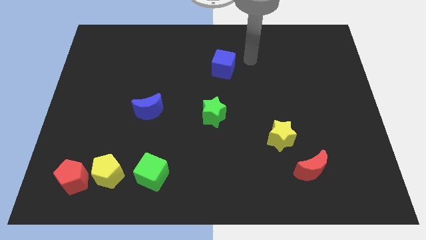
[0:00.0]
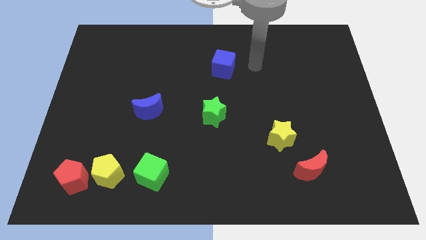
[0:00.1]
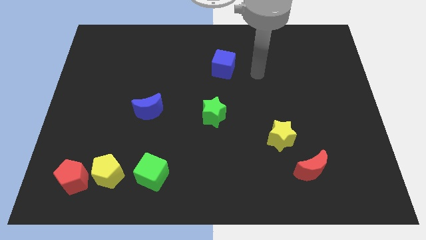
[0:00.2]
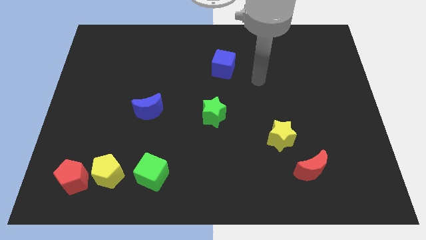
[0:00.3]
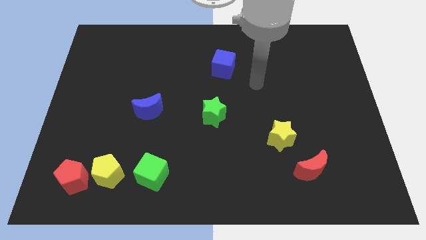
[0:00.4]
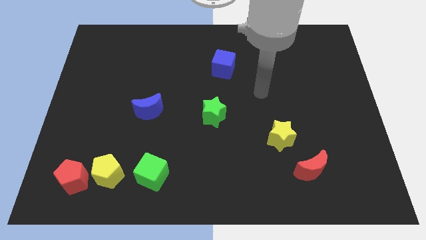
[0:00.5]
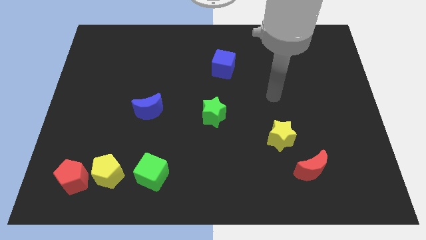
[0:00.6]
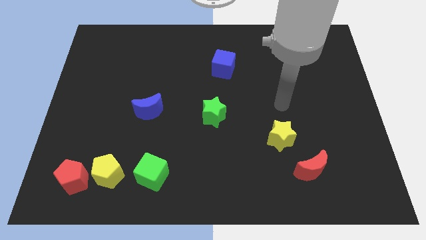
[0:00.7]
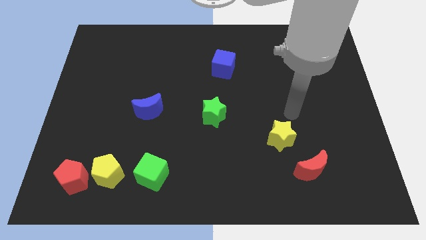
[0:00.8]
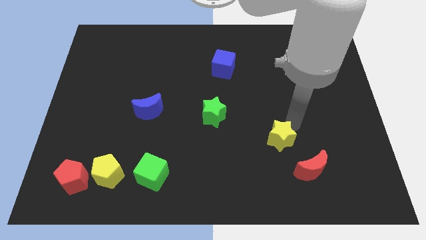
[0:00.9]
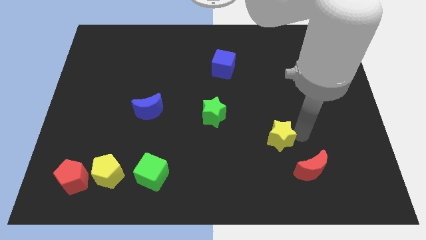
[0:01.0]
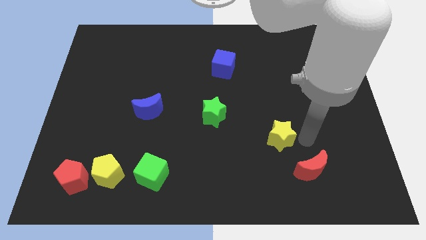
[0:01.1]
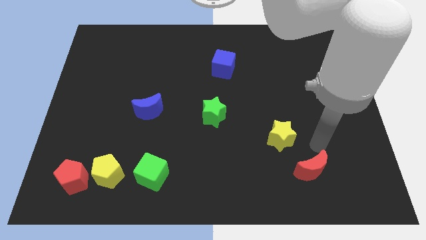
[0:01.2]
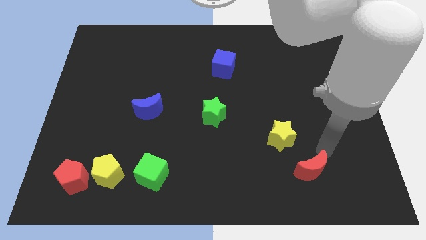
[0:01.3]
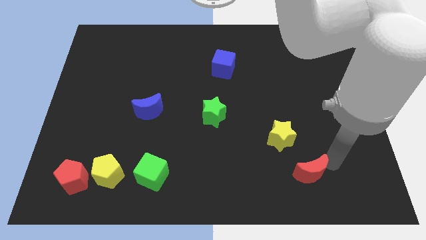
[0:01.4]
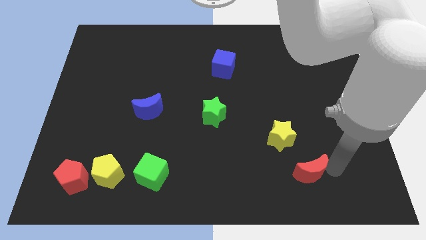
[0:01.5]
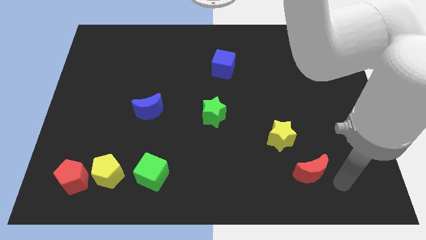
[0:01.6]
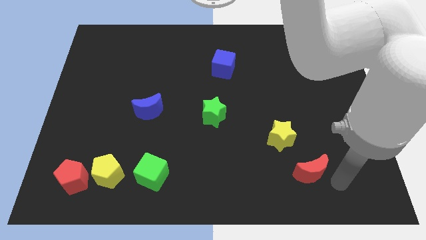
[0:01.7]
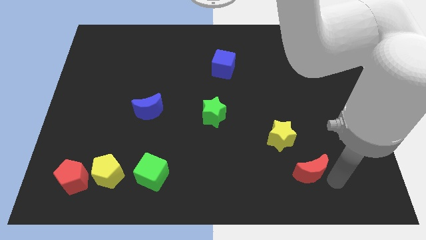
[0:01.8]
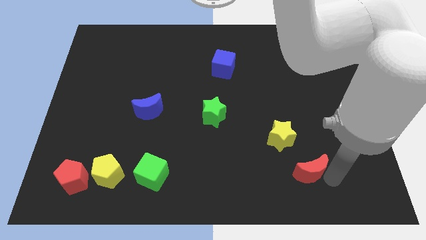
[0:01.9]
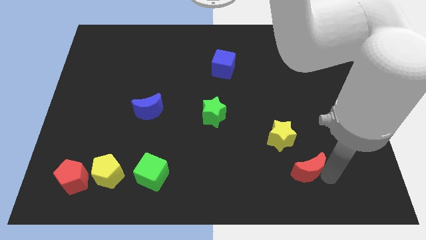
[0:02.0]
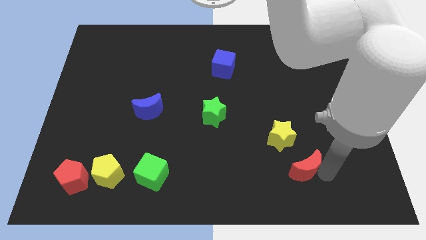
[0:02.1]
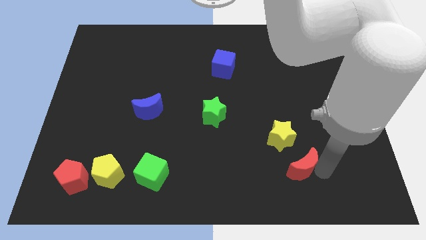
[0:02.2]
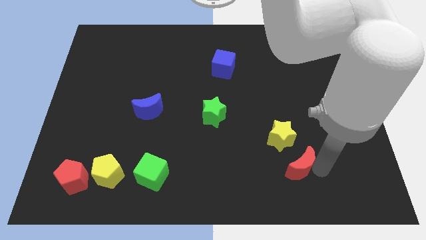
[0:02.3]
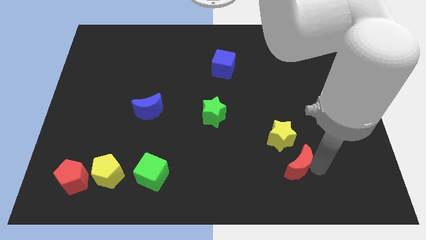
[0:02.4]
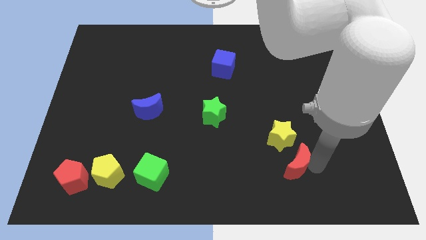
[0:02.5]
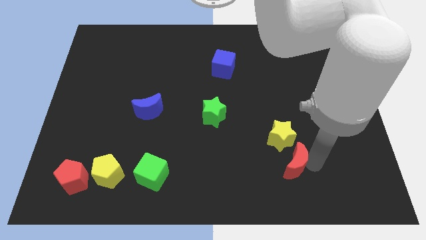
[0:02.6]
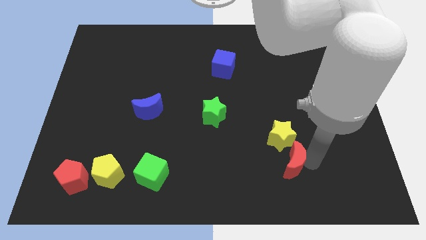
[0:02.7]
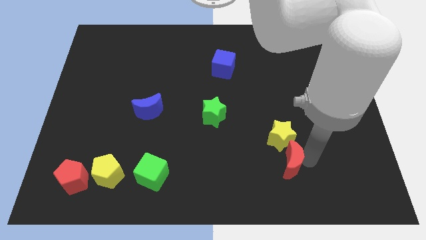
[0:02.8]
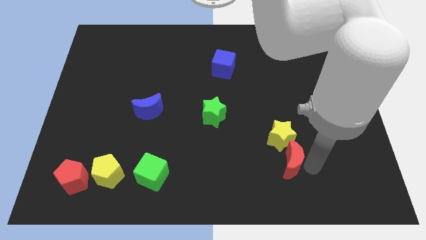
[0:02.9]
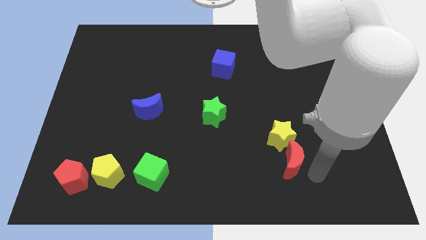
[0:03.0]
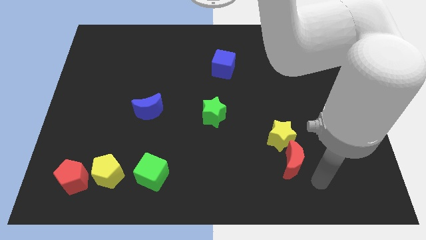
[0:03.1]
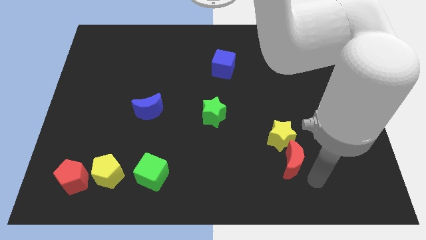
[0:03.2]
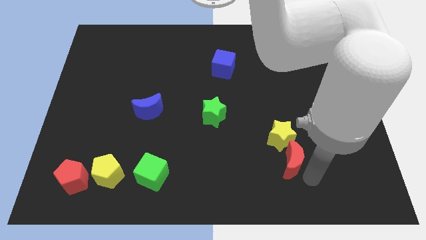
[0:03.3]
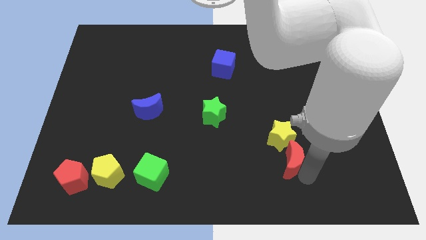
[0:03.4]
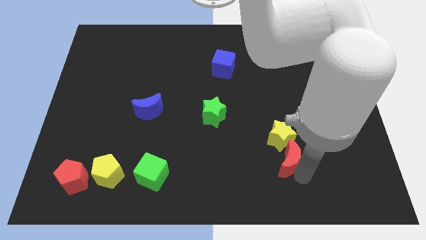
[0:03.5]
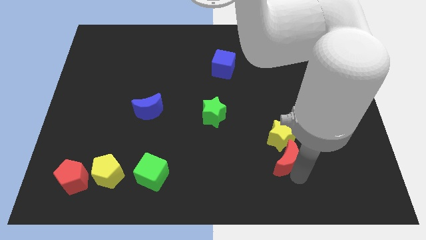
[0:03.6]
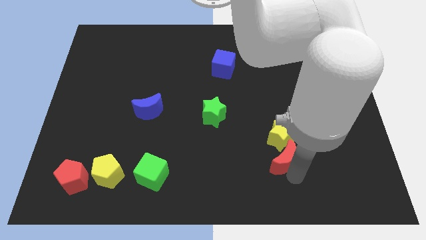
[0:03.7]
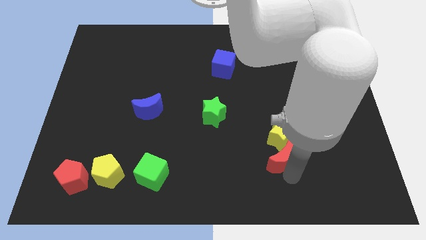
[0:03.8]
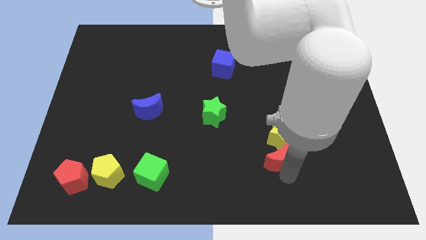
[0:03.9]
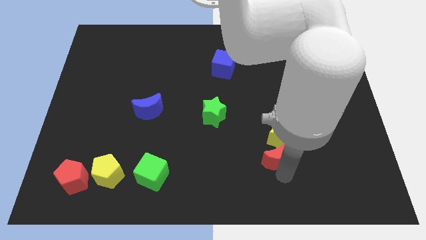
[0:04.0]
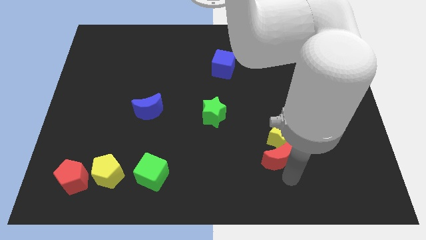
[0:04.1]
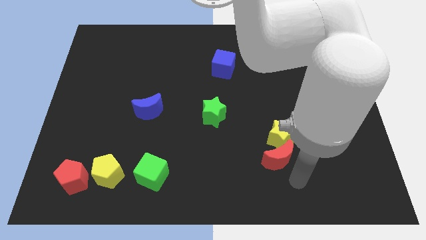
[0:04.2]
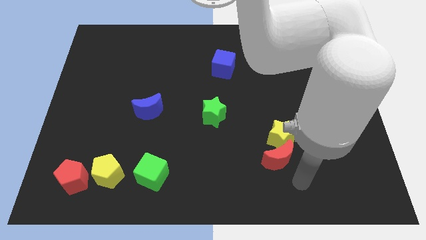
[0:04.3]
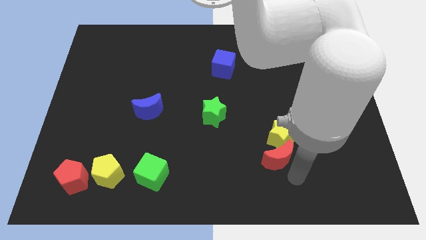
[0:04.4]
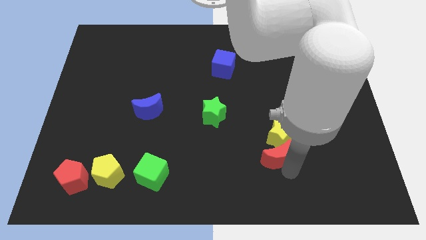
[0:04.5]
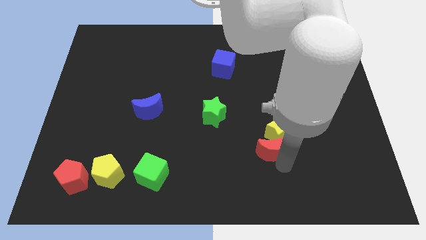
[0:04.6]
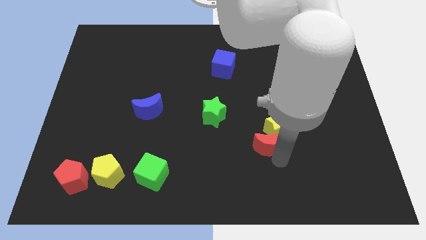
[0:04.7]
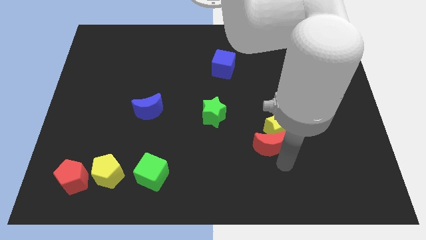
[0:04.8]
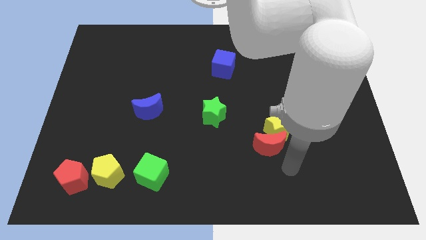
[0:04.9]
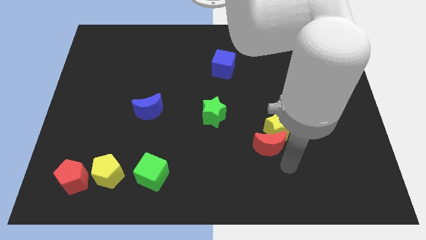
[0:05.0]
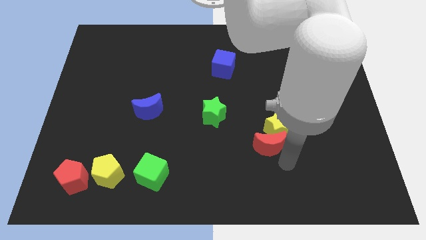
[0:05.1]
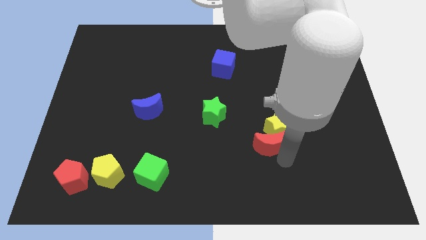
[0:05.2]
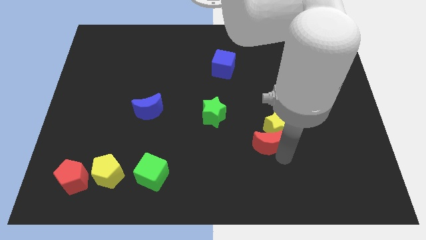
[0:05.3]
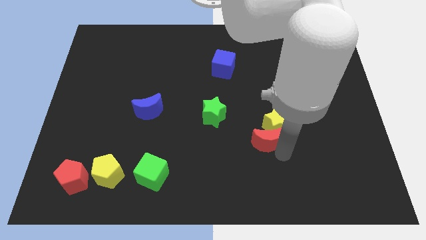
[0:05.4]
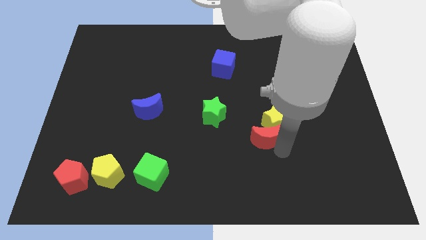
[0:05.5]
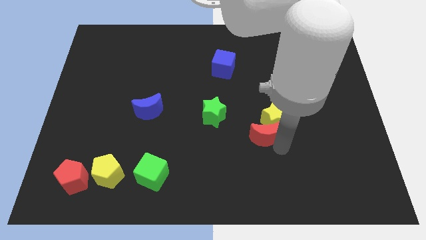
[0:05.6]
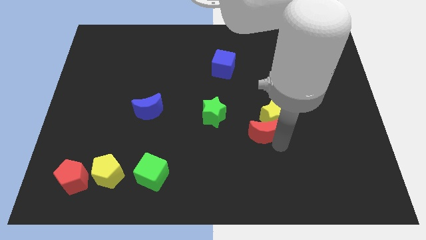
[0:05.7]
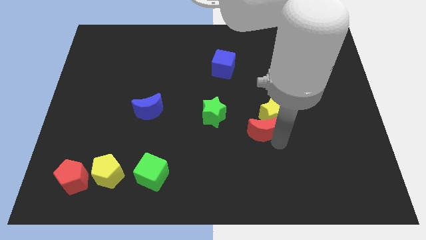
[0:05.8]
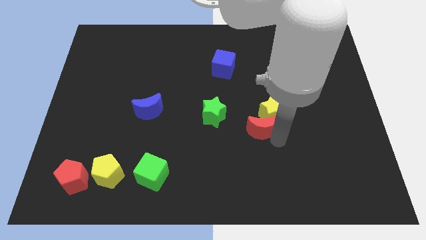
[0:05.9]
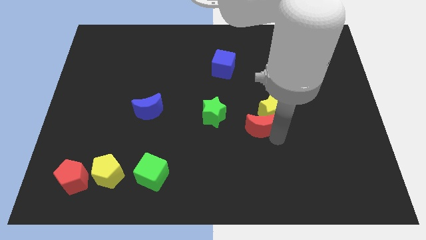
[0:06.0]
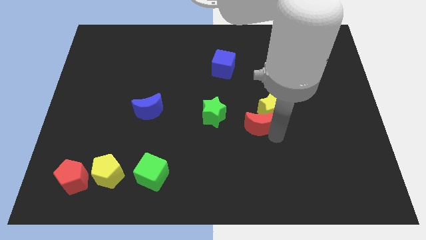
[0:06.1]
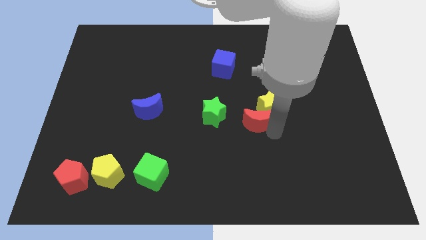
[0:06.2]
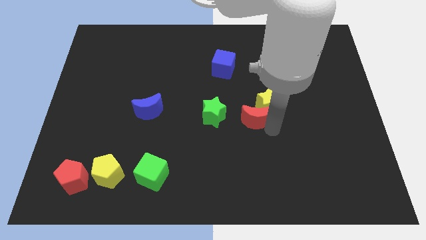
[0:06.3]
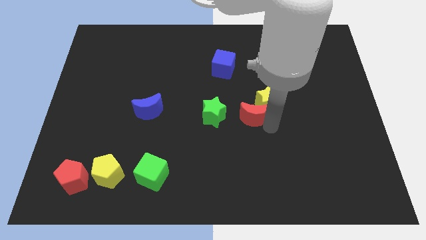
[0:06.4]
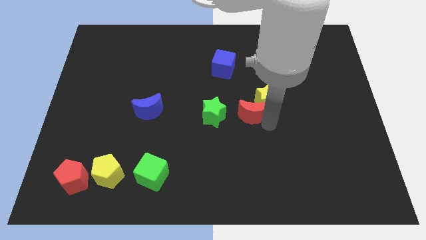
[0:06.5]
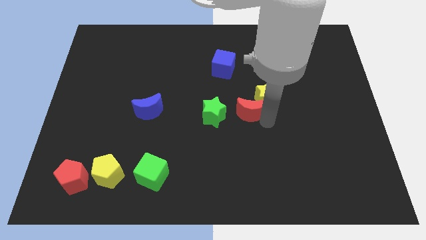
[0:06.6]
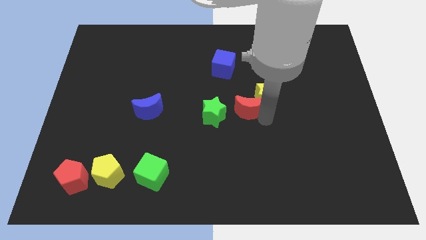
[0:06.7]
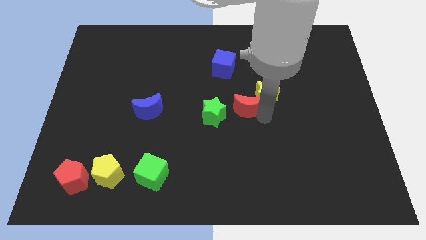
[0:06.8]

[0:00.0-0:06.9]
slide the red moon upwards and left diagonally

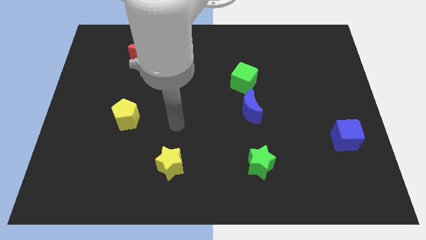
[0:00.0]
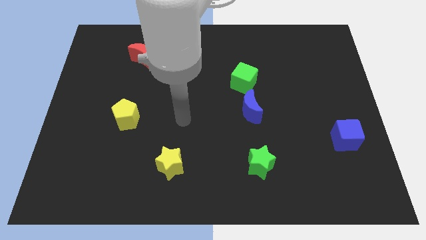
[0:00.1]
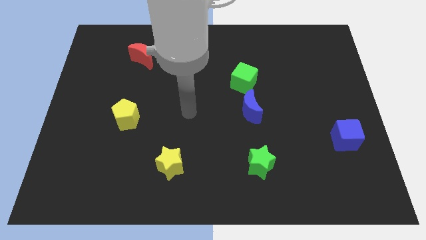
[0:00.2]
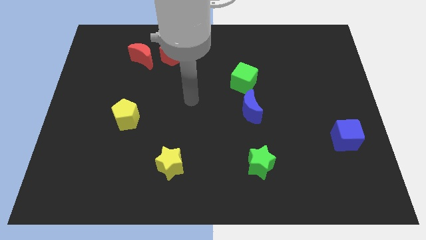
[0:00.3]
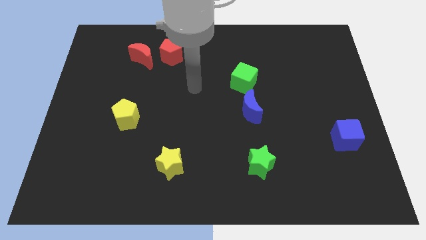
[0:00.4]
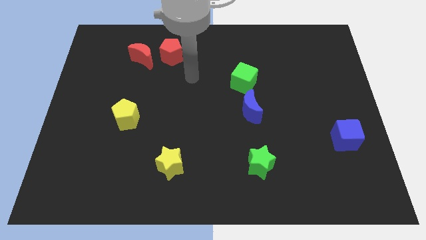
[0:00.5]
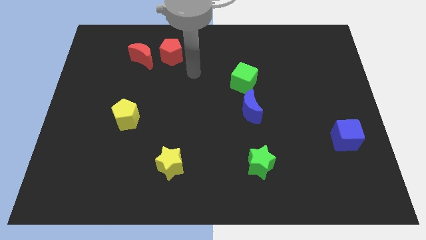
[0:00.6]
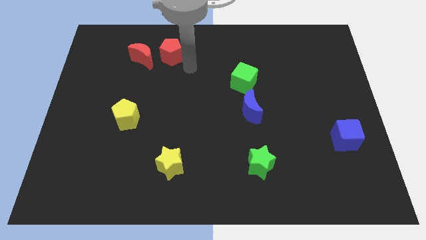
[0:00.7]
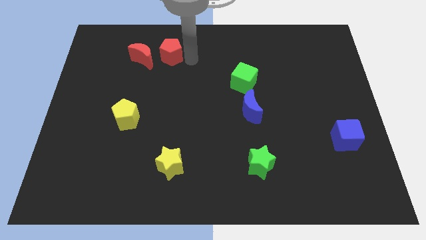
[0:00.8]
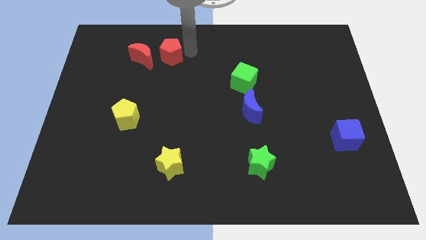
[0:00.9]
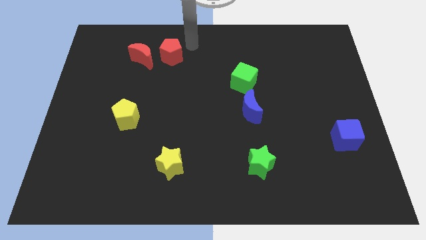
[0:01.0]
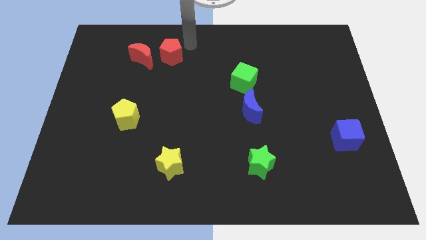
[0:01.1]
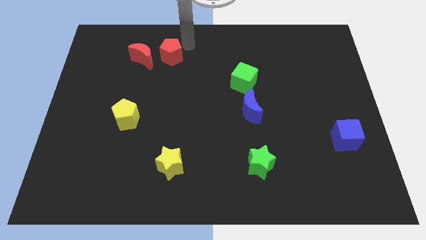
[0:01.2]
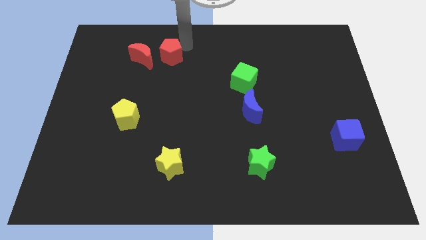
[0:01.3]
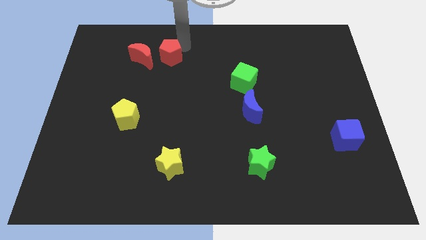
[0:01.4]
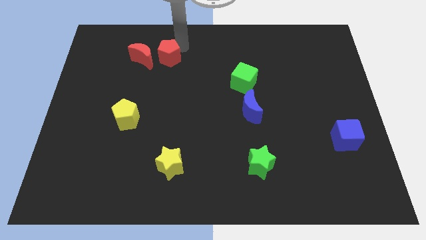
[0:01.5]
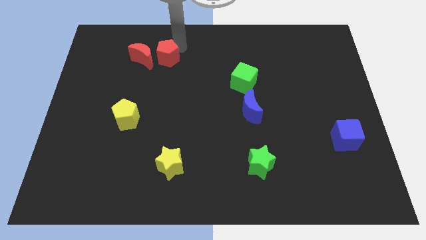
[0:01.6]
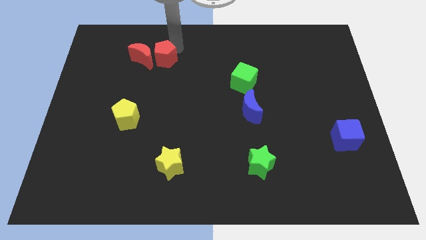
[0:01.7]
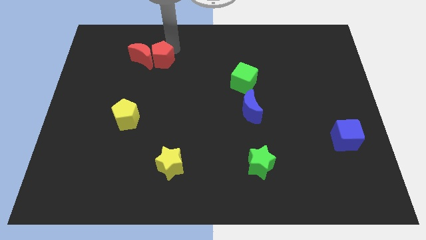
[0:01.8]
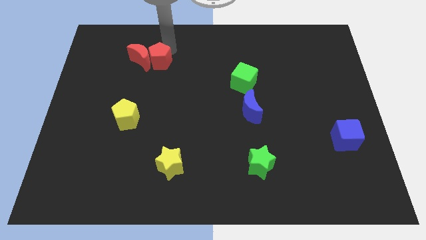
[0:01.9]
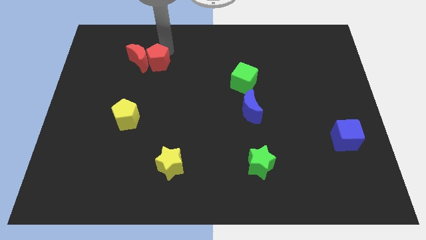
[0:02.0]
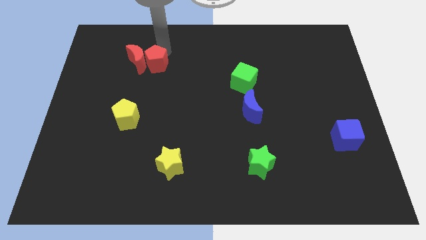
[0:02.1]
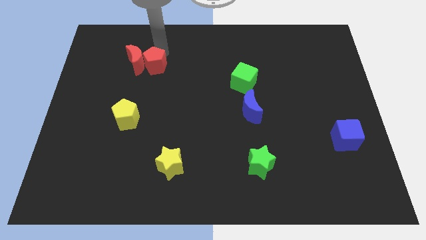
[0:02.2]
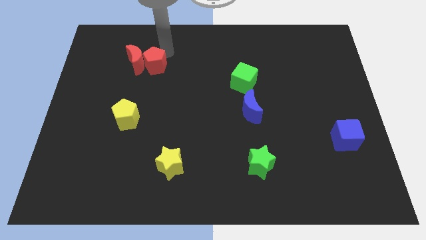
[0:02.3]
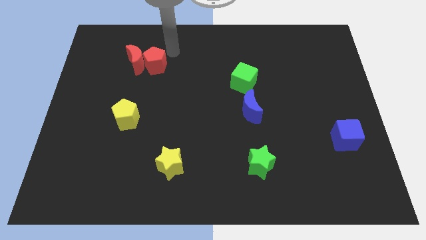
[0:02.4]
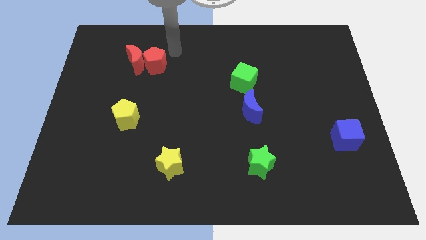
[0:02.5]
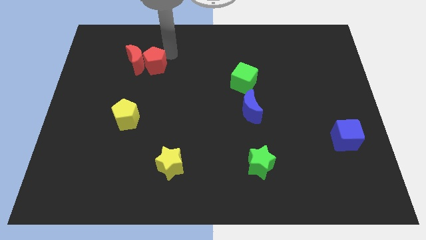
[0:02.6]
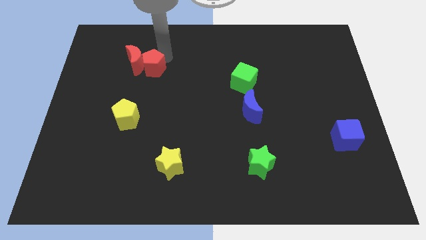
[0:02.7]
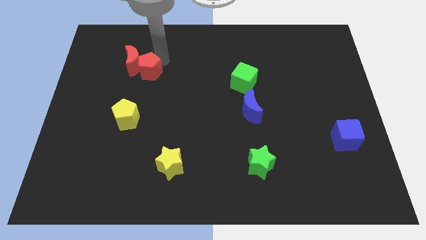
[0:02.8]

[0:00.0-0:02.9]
slightly move the red pentagon down and left diagonally
